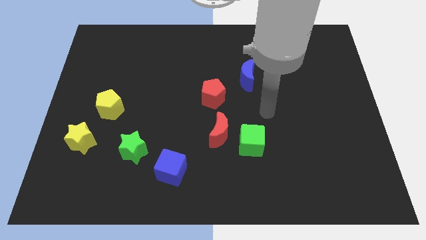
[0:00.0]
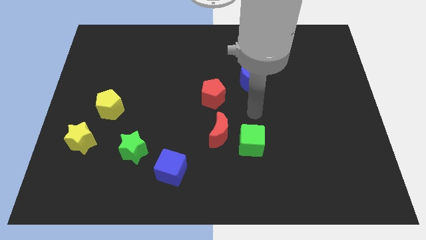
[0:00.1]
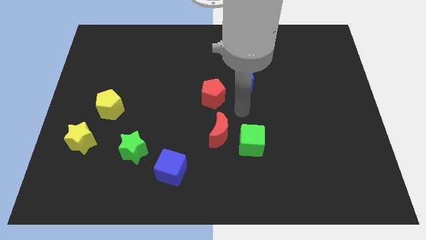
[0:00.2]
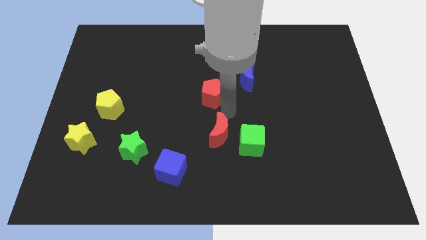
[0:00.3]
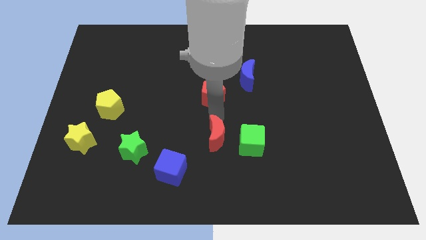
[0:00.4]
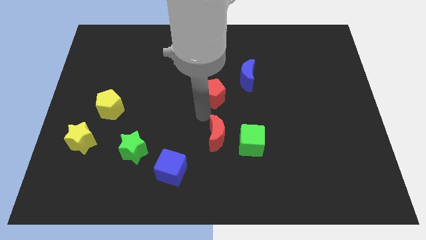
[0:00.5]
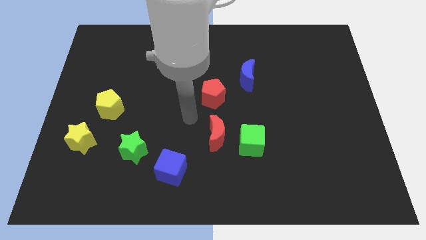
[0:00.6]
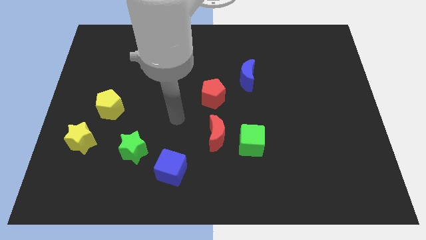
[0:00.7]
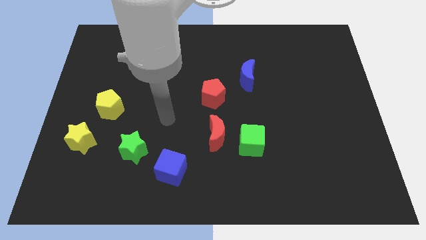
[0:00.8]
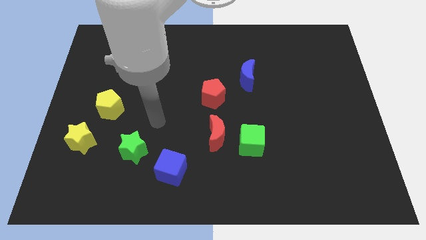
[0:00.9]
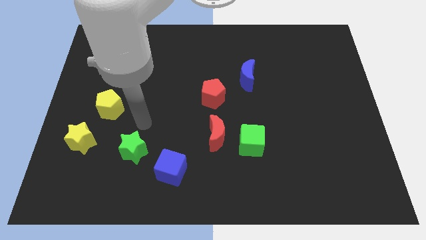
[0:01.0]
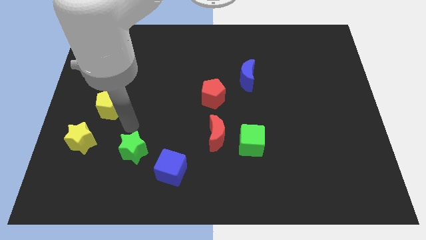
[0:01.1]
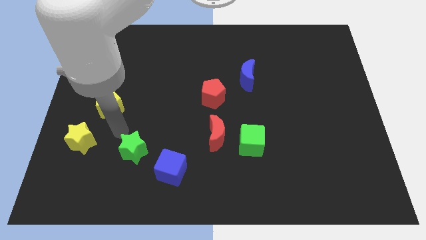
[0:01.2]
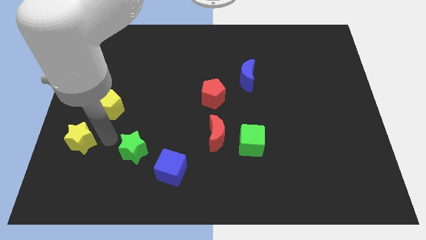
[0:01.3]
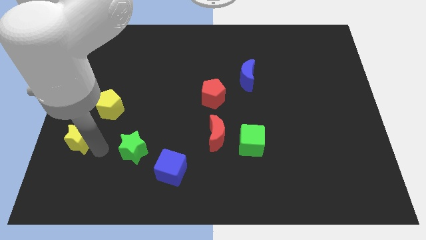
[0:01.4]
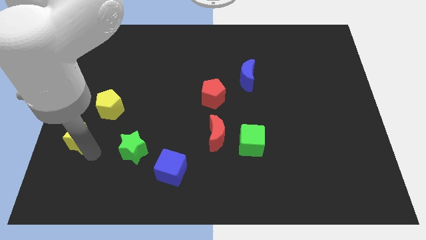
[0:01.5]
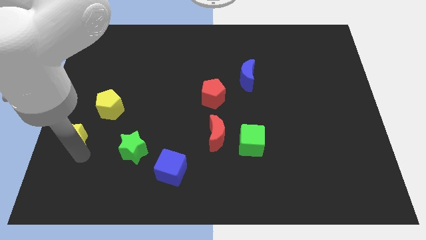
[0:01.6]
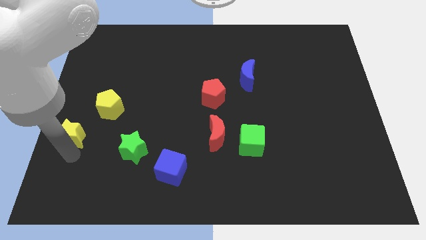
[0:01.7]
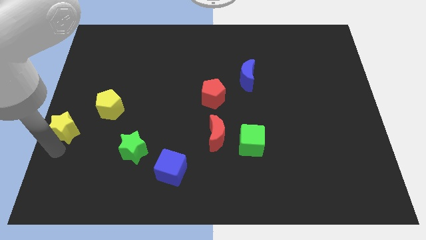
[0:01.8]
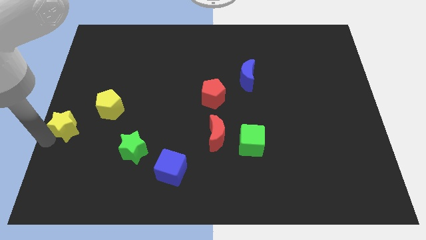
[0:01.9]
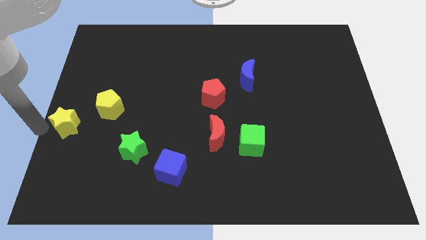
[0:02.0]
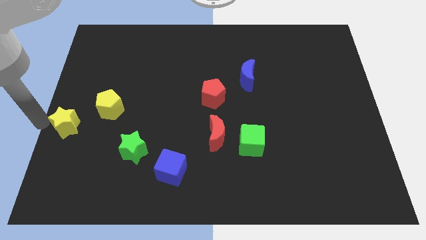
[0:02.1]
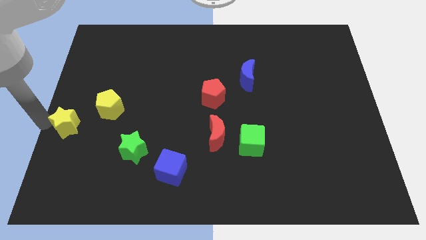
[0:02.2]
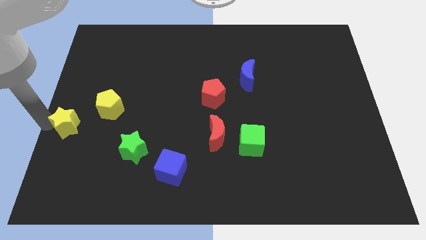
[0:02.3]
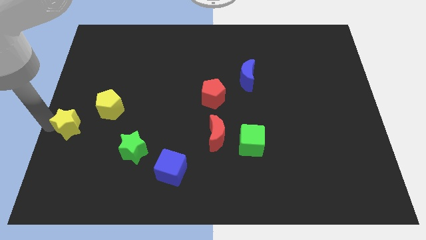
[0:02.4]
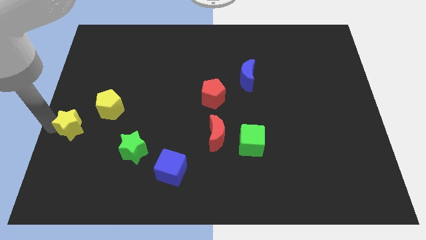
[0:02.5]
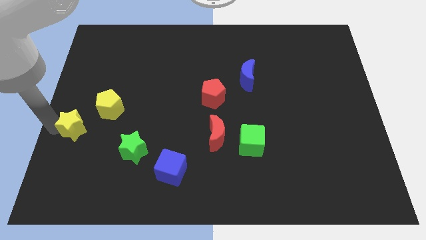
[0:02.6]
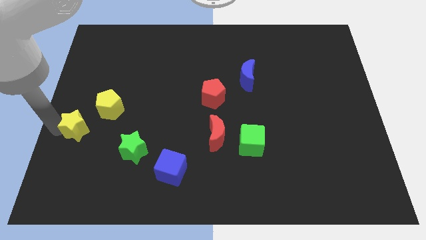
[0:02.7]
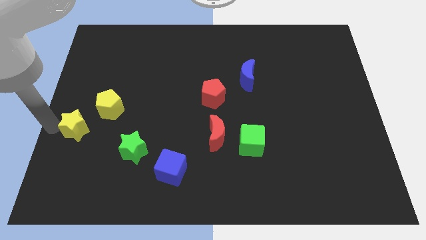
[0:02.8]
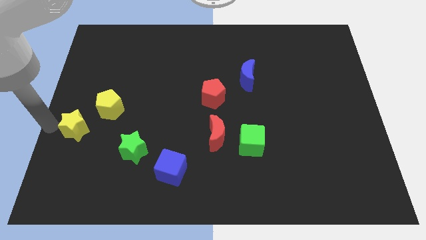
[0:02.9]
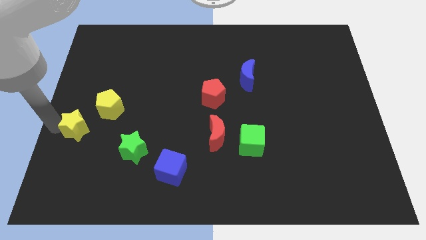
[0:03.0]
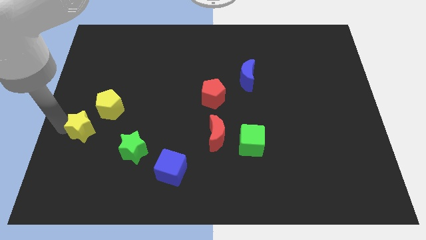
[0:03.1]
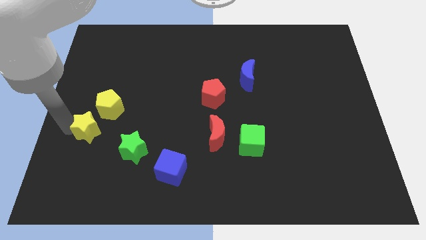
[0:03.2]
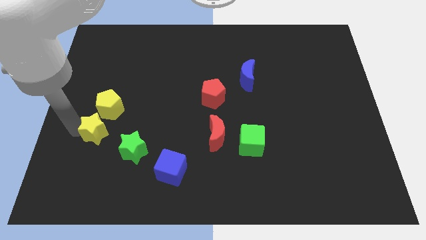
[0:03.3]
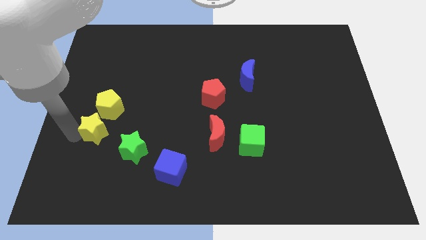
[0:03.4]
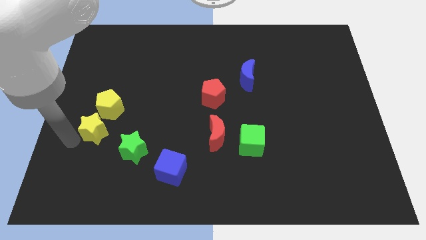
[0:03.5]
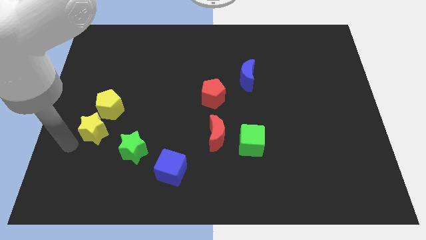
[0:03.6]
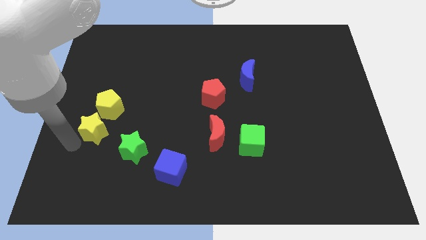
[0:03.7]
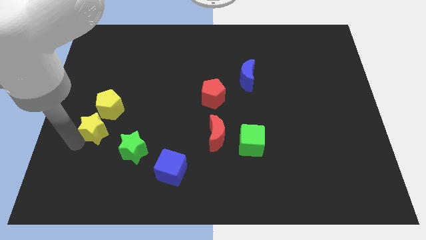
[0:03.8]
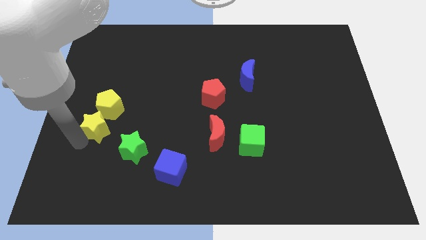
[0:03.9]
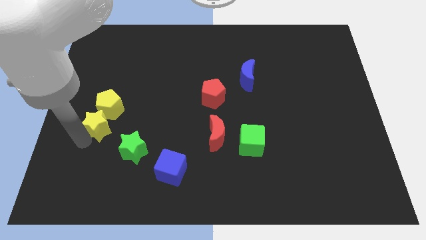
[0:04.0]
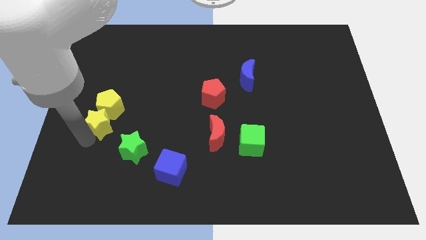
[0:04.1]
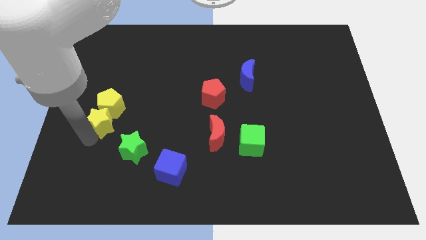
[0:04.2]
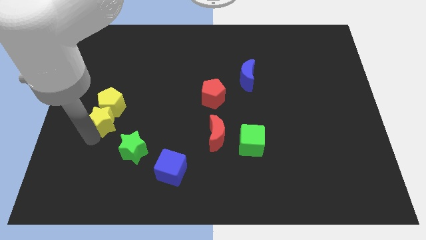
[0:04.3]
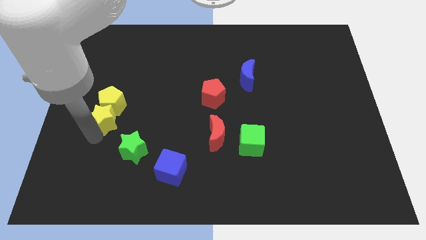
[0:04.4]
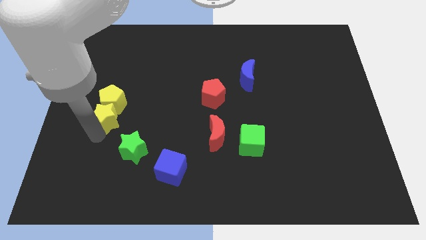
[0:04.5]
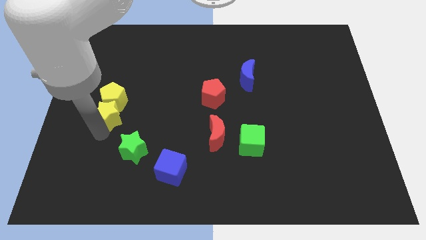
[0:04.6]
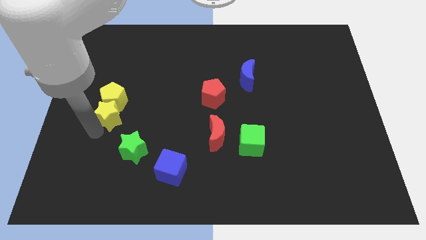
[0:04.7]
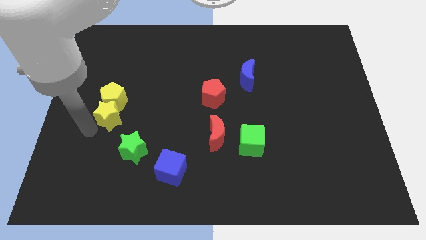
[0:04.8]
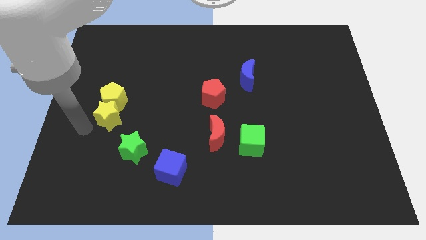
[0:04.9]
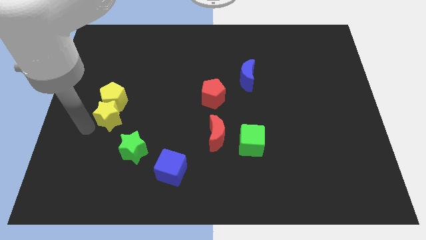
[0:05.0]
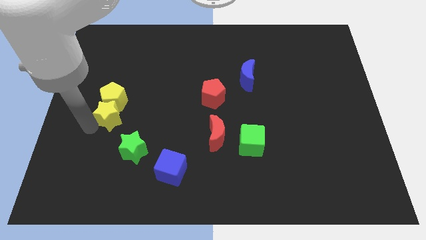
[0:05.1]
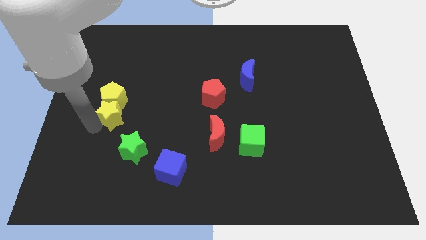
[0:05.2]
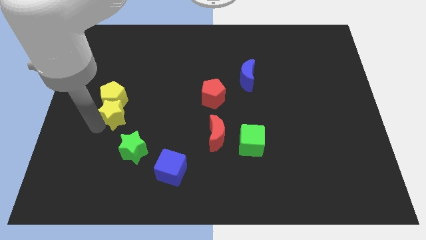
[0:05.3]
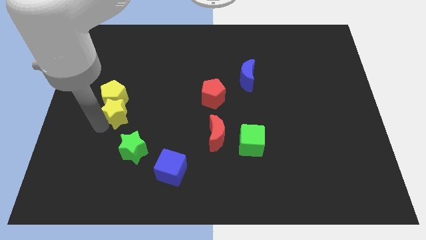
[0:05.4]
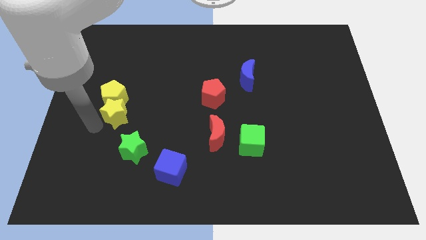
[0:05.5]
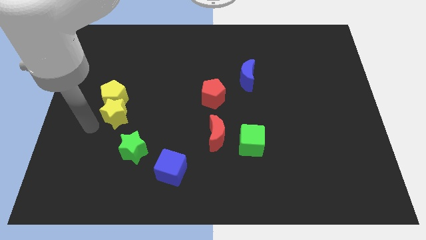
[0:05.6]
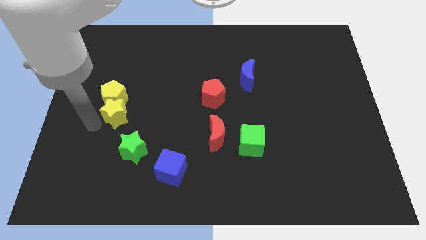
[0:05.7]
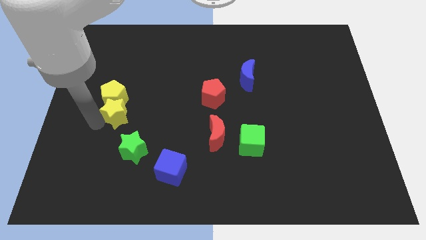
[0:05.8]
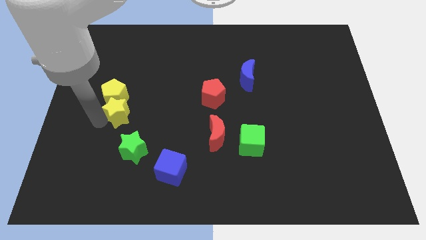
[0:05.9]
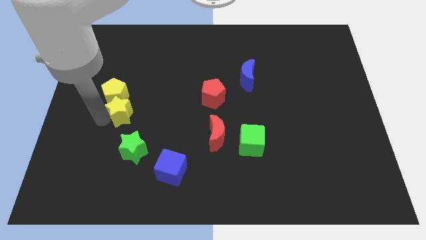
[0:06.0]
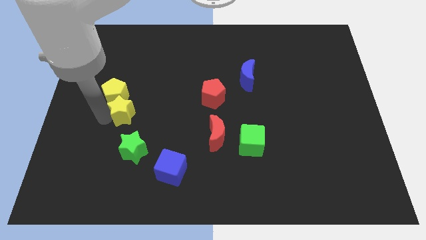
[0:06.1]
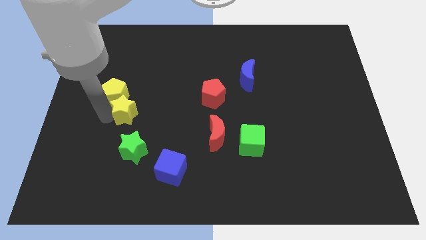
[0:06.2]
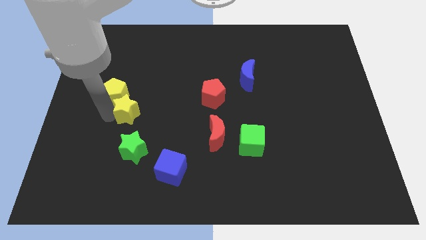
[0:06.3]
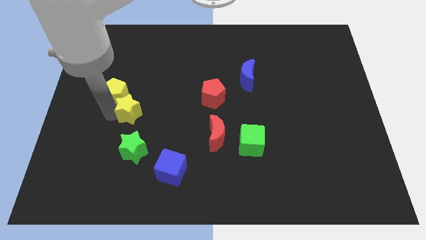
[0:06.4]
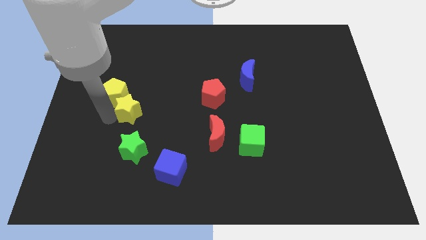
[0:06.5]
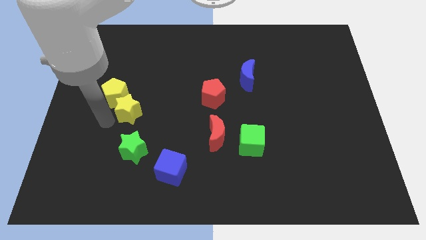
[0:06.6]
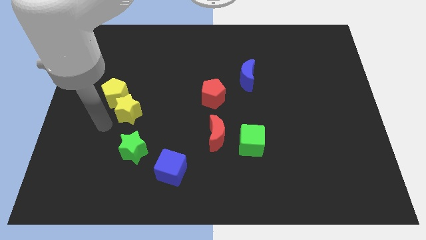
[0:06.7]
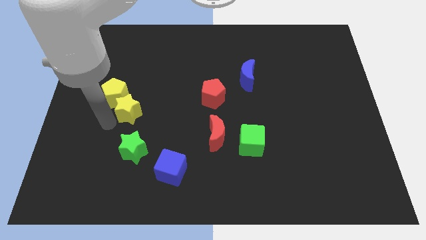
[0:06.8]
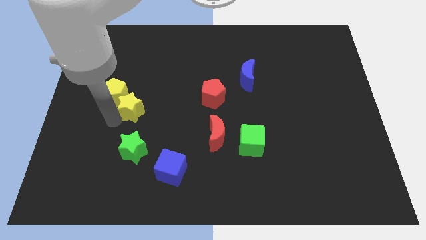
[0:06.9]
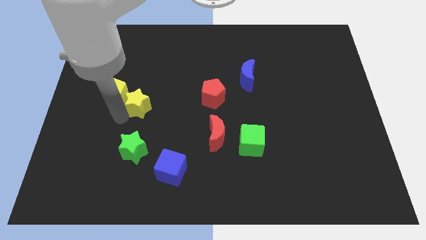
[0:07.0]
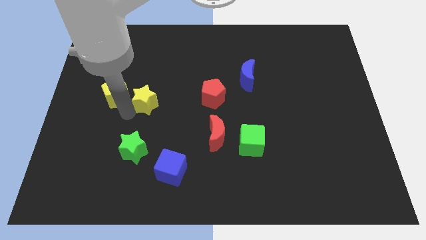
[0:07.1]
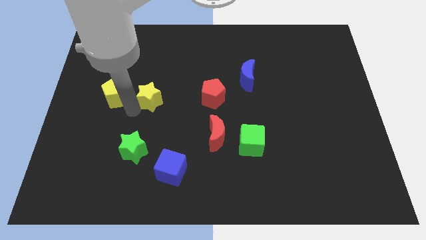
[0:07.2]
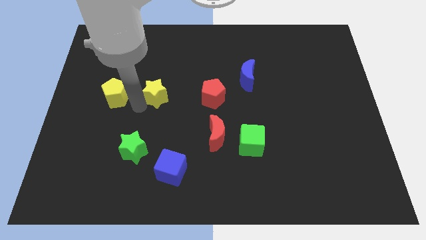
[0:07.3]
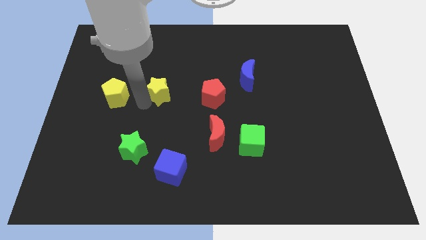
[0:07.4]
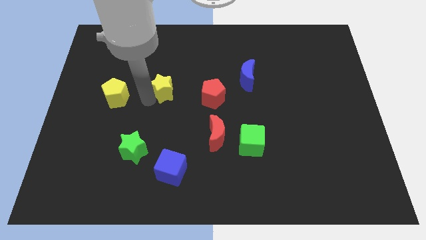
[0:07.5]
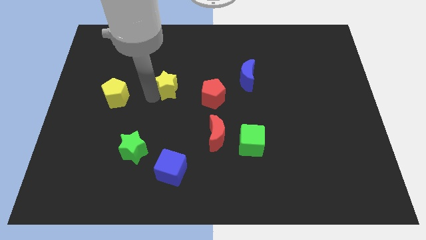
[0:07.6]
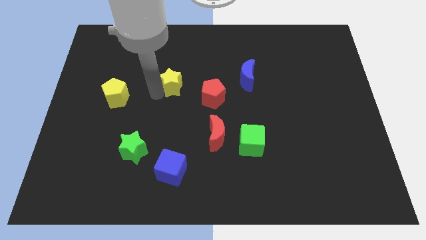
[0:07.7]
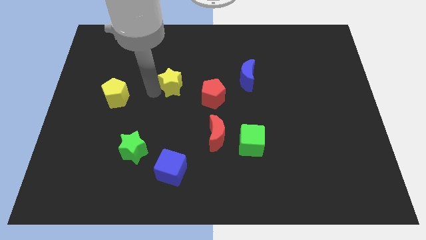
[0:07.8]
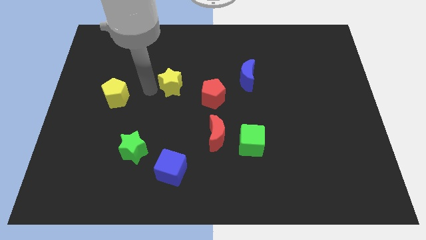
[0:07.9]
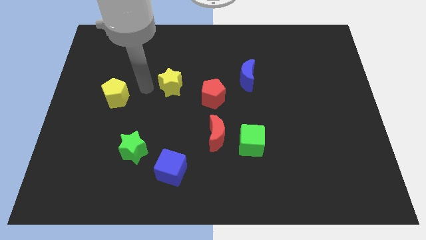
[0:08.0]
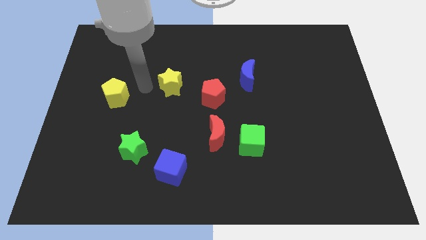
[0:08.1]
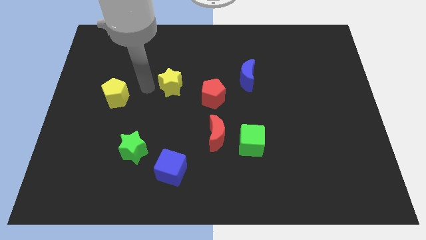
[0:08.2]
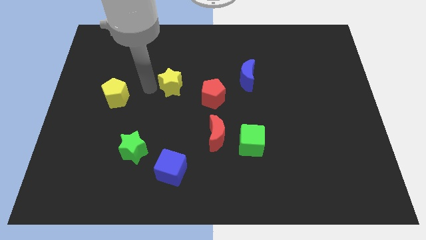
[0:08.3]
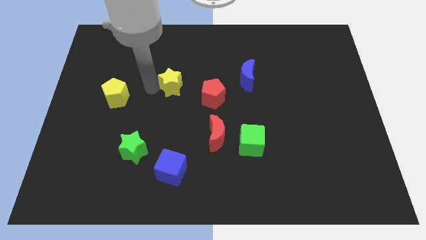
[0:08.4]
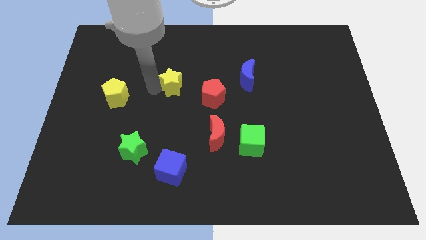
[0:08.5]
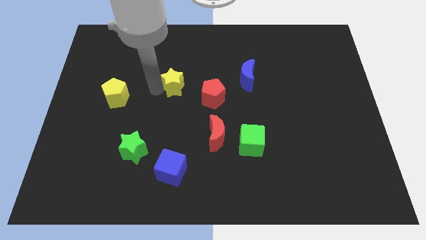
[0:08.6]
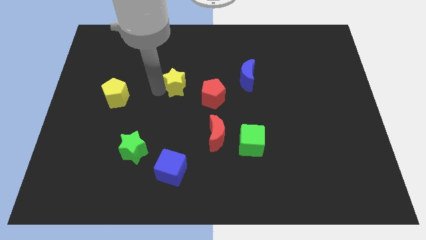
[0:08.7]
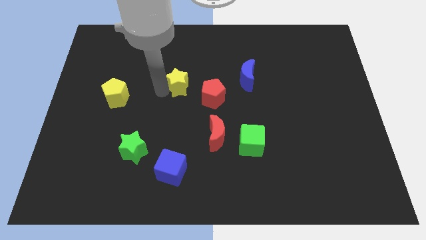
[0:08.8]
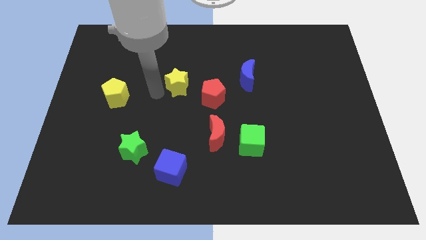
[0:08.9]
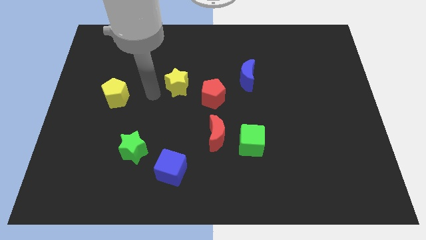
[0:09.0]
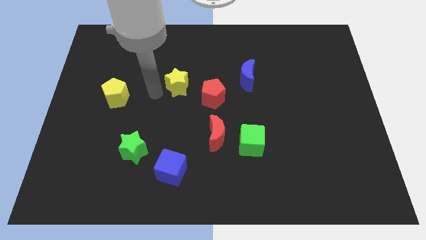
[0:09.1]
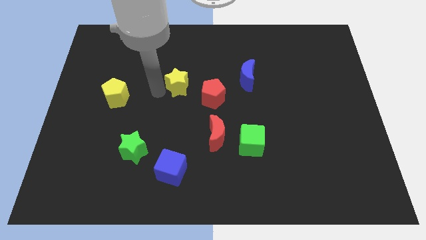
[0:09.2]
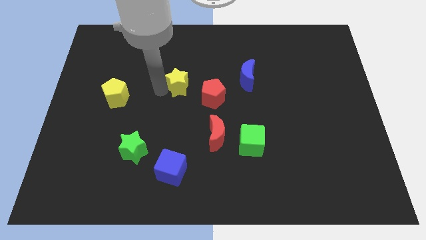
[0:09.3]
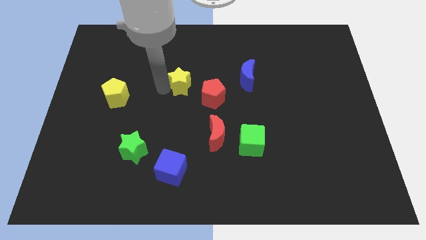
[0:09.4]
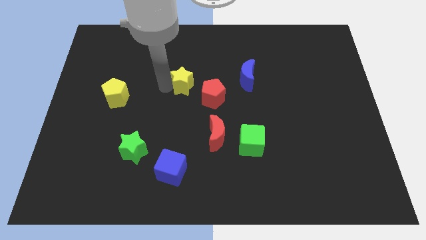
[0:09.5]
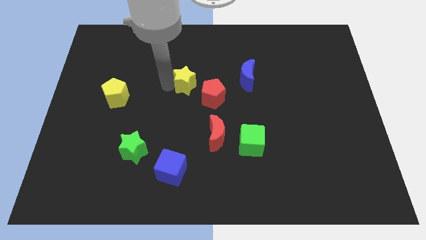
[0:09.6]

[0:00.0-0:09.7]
put the yellow star to the left of the blue moon
